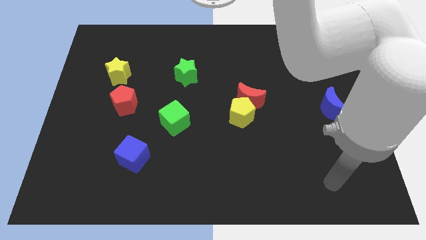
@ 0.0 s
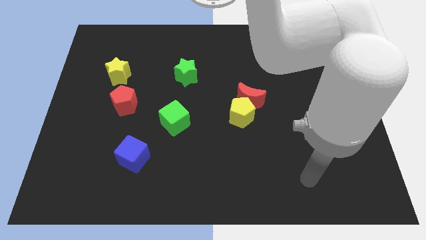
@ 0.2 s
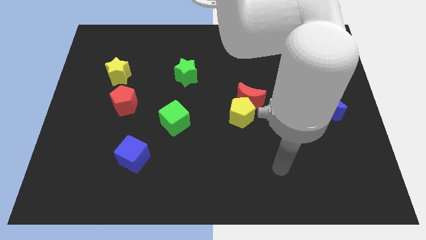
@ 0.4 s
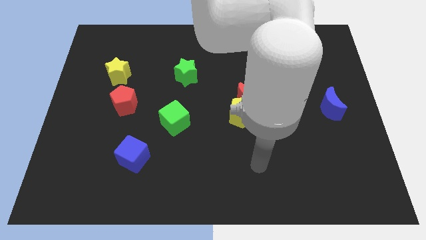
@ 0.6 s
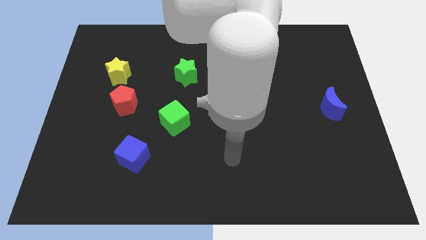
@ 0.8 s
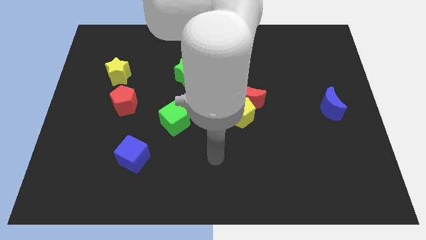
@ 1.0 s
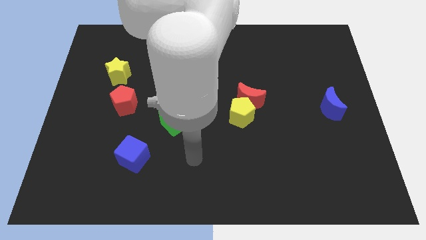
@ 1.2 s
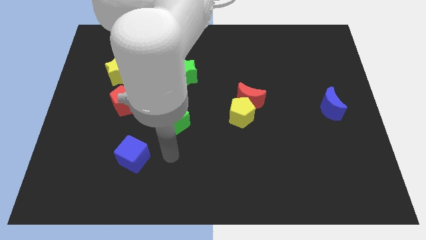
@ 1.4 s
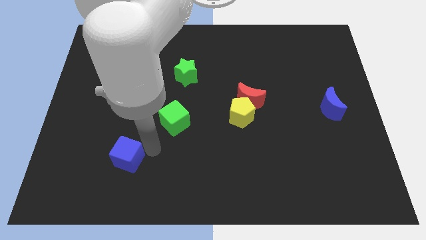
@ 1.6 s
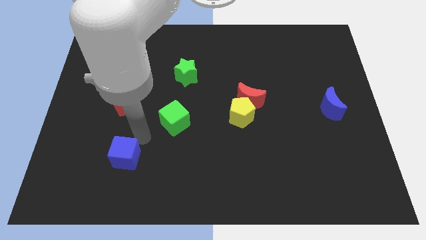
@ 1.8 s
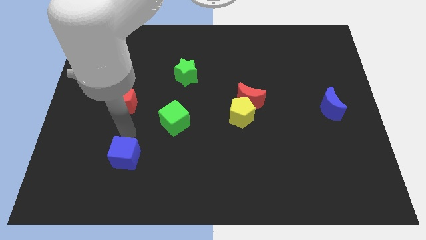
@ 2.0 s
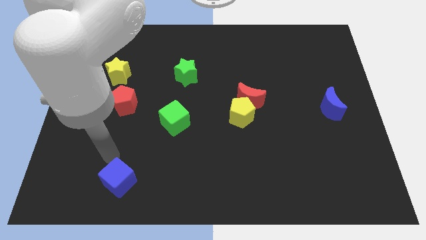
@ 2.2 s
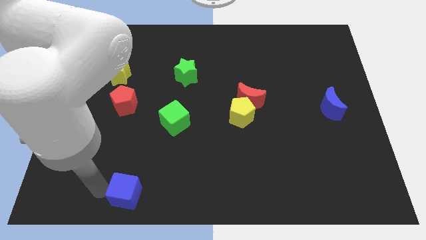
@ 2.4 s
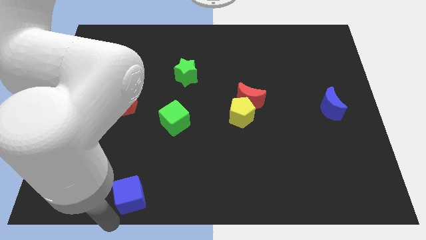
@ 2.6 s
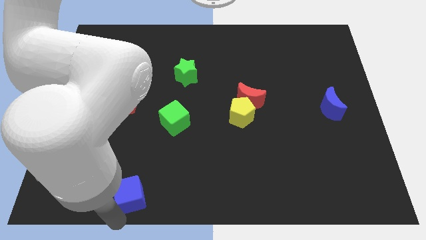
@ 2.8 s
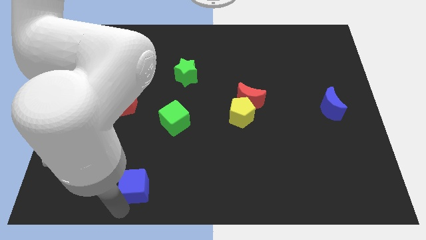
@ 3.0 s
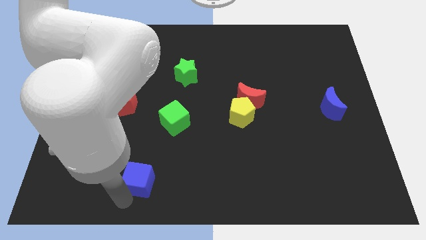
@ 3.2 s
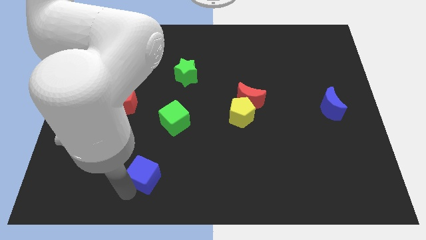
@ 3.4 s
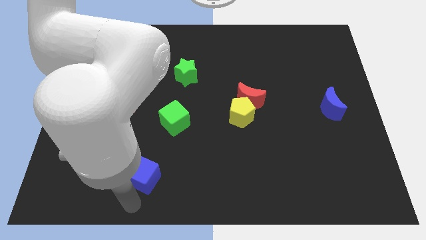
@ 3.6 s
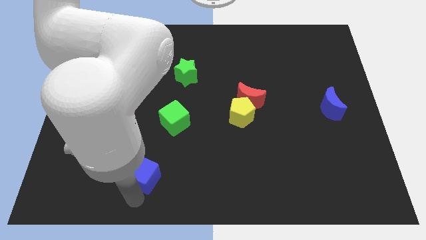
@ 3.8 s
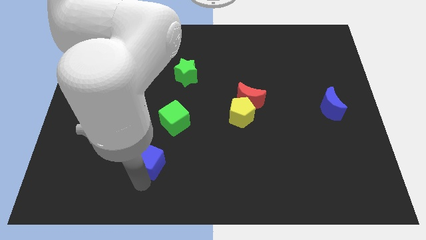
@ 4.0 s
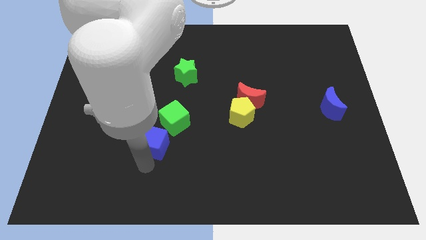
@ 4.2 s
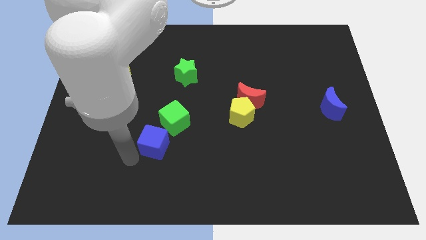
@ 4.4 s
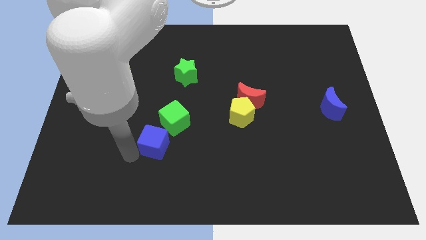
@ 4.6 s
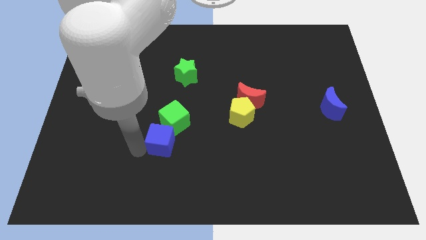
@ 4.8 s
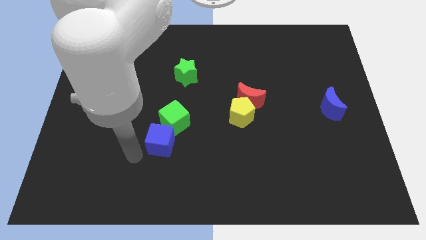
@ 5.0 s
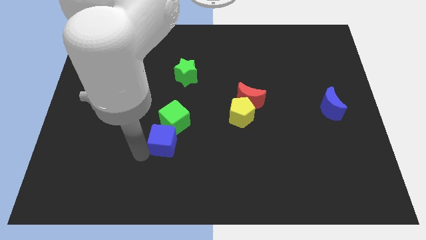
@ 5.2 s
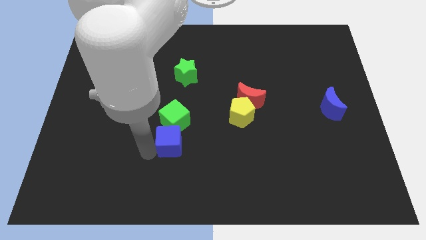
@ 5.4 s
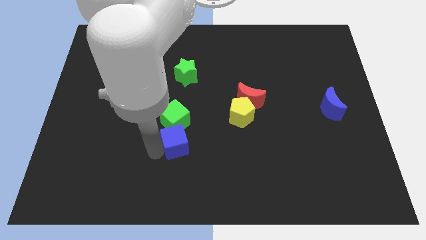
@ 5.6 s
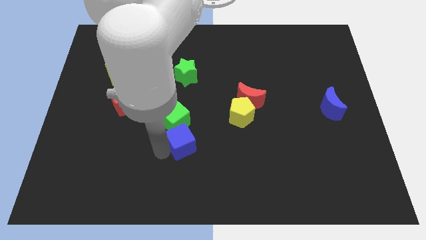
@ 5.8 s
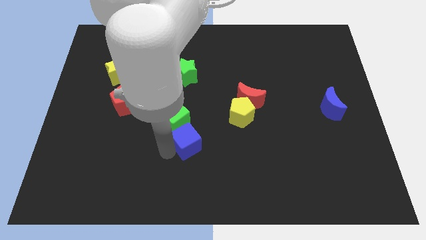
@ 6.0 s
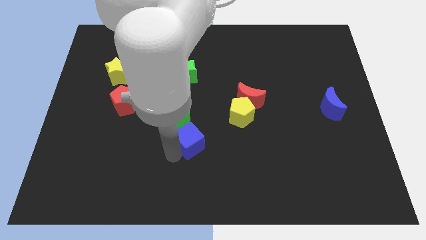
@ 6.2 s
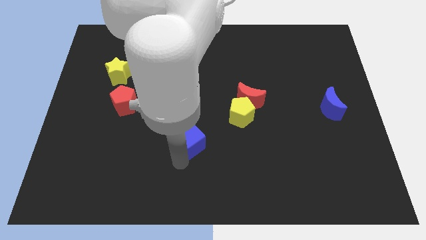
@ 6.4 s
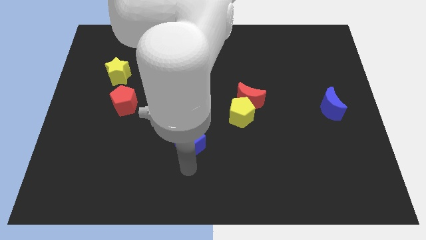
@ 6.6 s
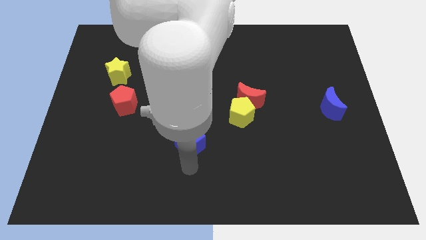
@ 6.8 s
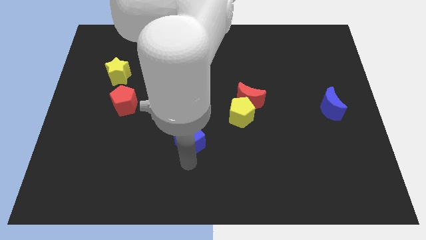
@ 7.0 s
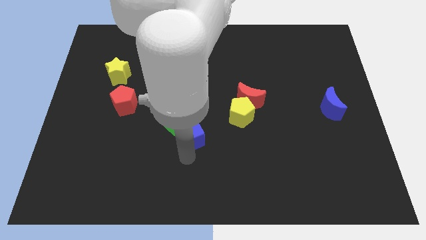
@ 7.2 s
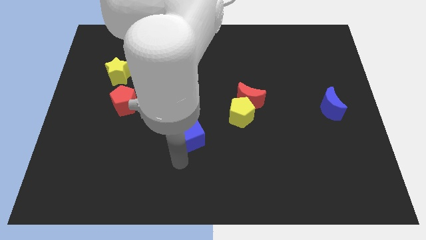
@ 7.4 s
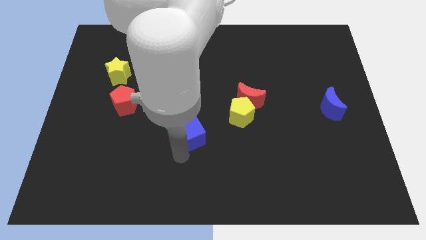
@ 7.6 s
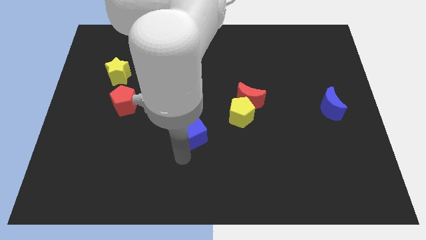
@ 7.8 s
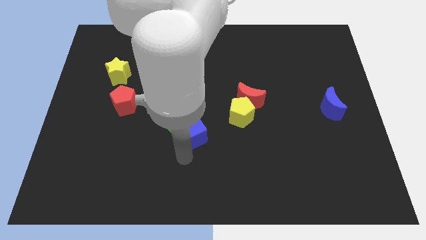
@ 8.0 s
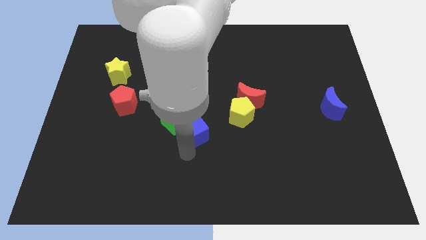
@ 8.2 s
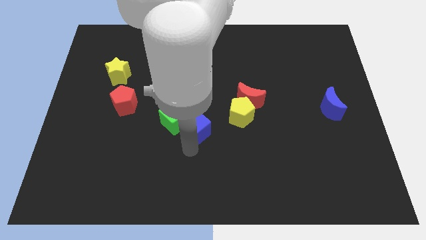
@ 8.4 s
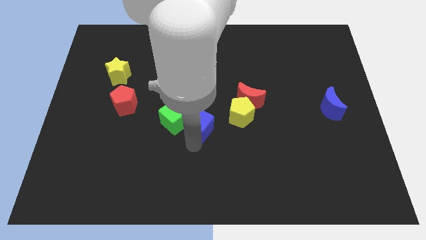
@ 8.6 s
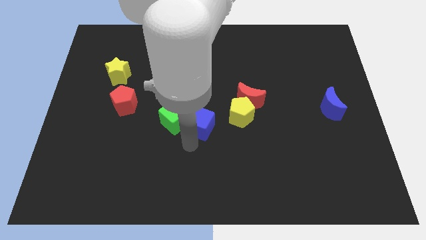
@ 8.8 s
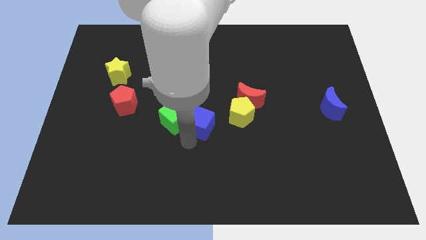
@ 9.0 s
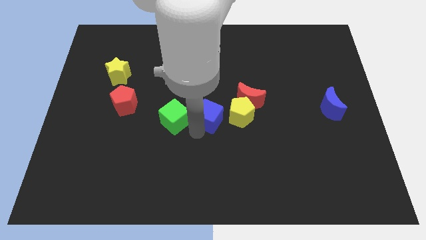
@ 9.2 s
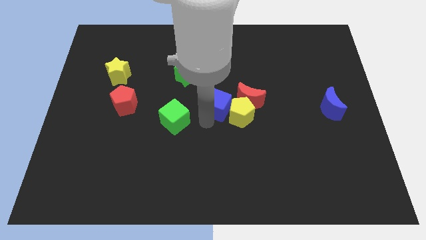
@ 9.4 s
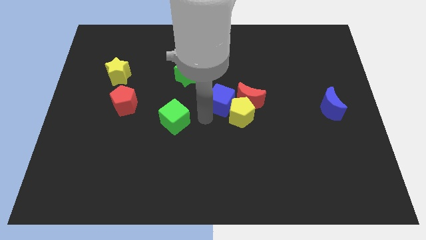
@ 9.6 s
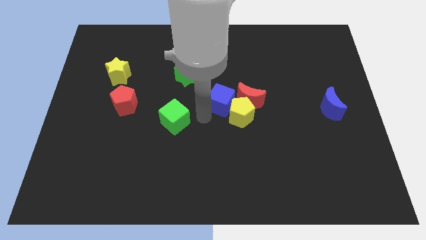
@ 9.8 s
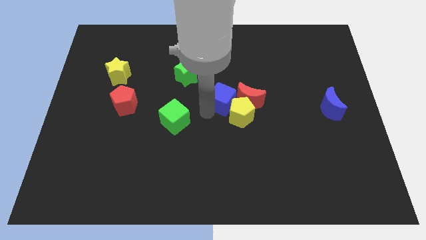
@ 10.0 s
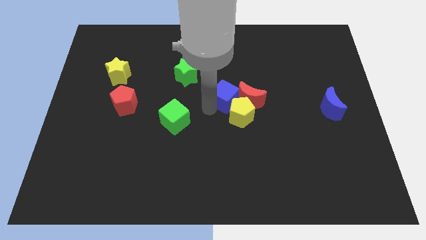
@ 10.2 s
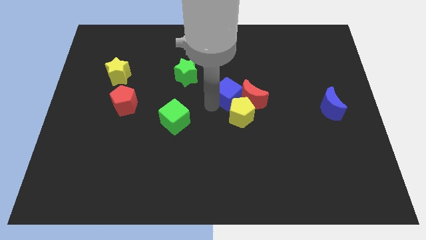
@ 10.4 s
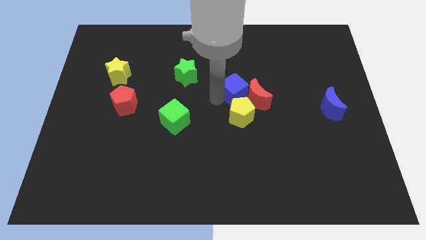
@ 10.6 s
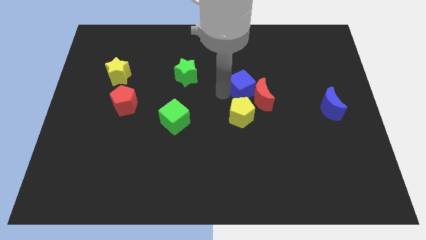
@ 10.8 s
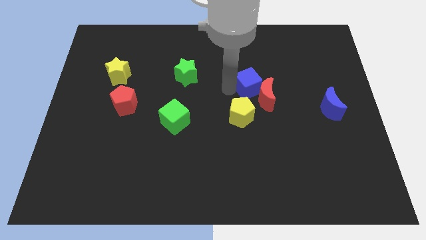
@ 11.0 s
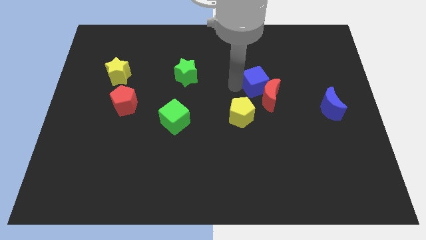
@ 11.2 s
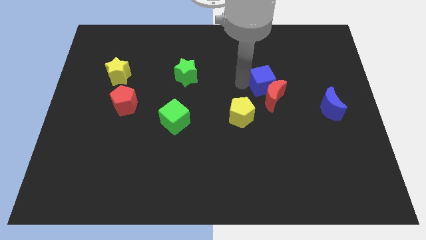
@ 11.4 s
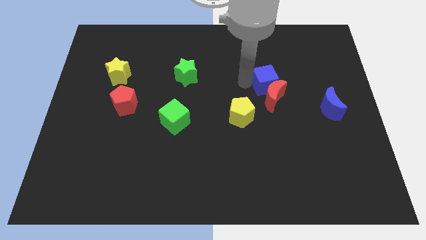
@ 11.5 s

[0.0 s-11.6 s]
put the blue cube to the top right of the red moon

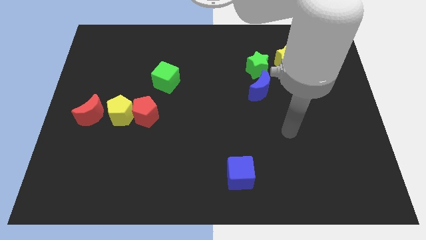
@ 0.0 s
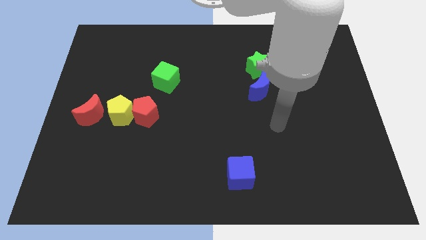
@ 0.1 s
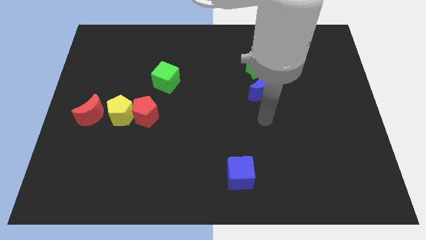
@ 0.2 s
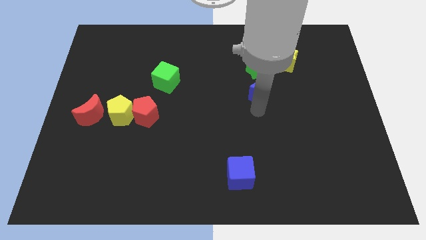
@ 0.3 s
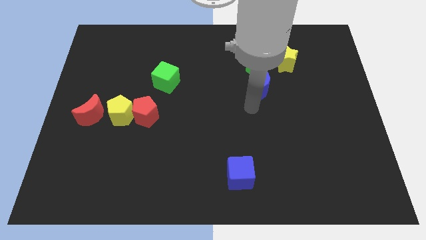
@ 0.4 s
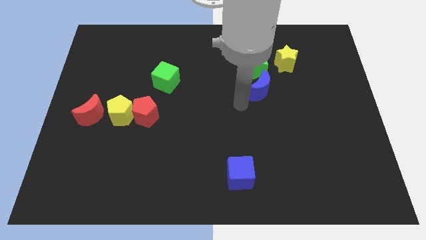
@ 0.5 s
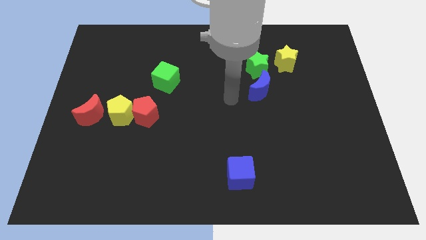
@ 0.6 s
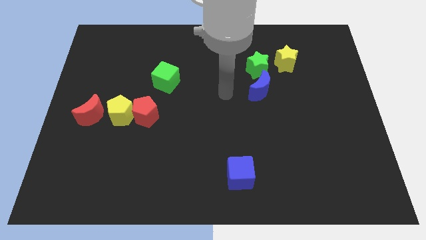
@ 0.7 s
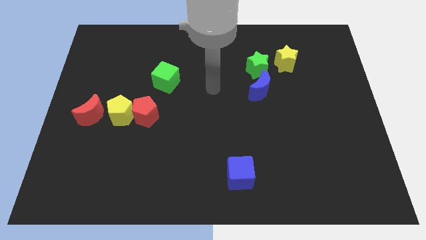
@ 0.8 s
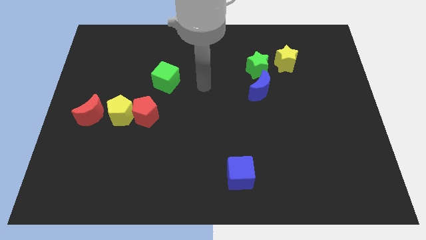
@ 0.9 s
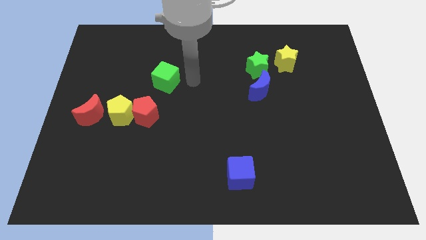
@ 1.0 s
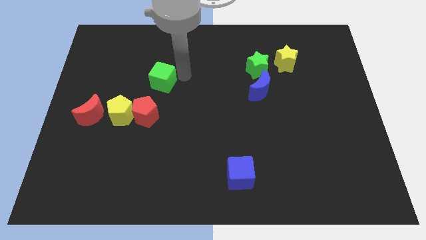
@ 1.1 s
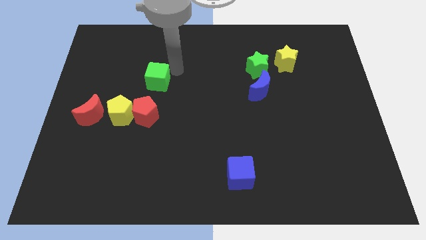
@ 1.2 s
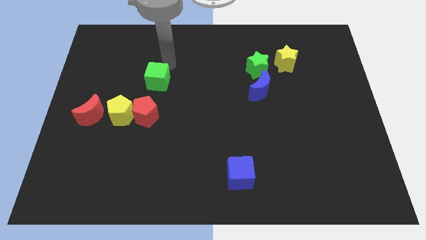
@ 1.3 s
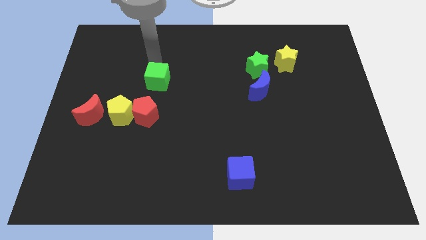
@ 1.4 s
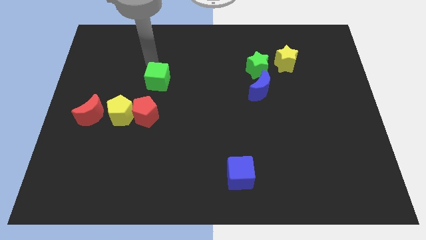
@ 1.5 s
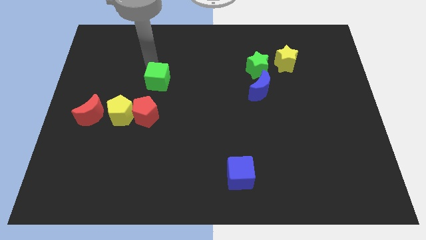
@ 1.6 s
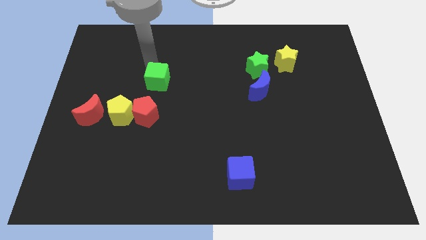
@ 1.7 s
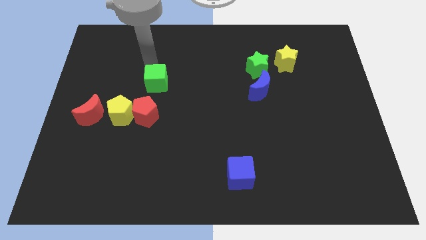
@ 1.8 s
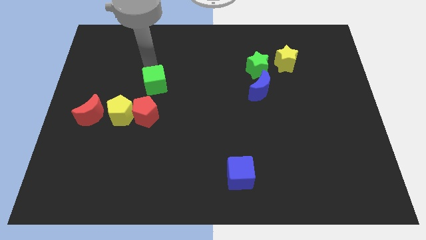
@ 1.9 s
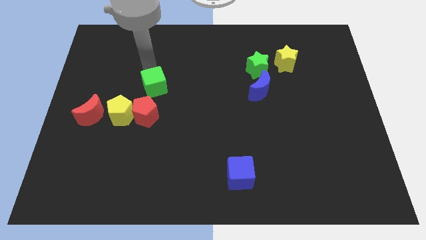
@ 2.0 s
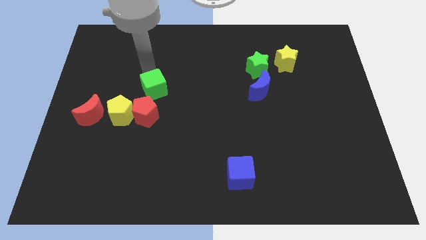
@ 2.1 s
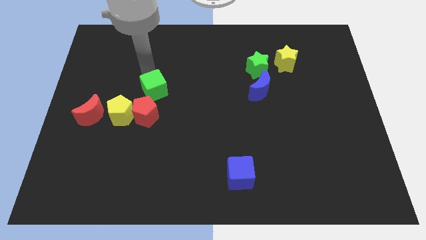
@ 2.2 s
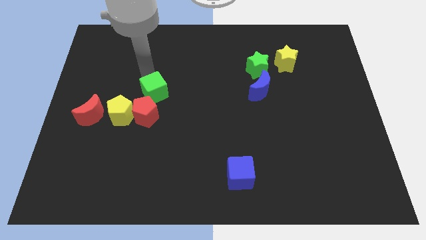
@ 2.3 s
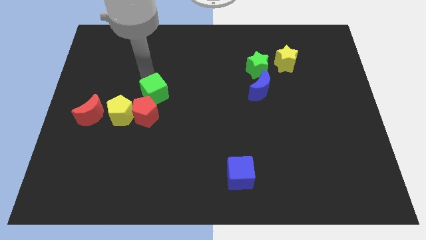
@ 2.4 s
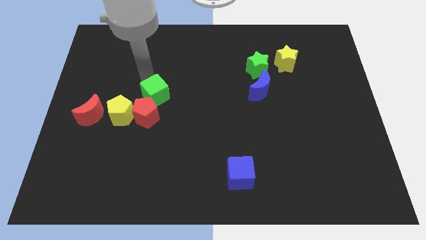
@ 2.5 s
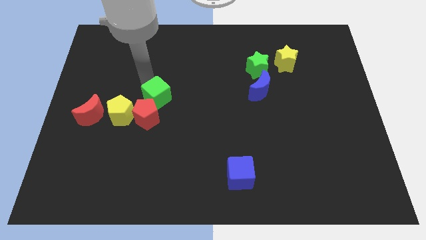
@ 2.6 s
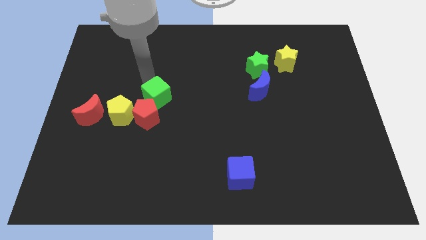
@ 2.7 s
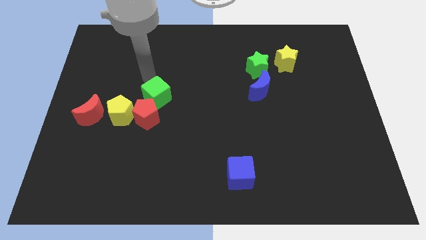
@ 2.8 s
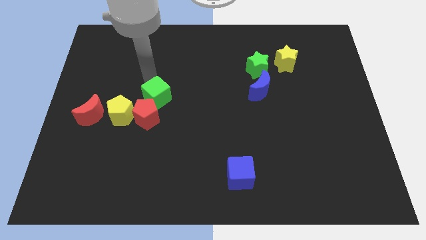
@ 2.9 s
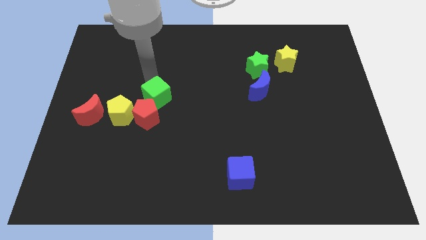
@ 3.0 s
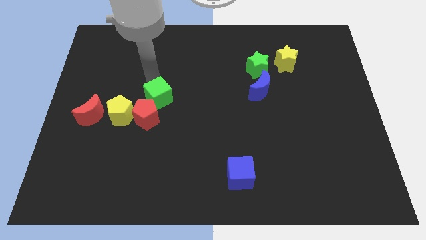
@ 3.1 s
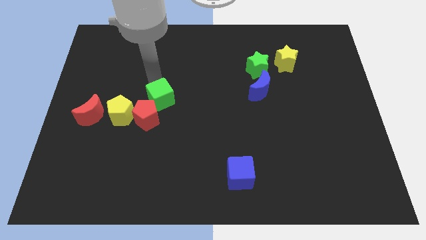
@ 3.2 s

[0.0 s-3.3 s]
put the green cube just right of the yellow pentagon
